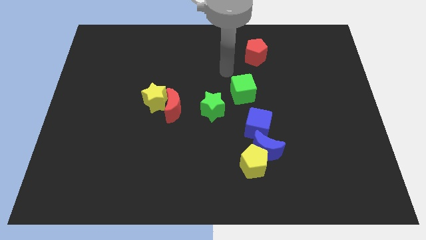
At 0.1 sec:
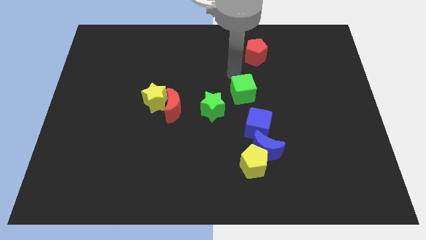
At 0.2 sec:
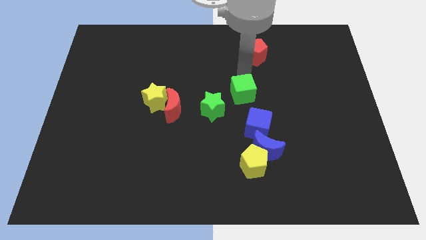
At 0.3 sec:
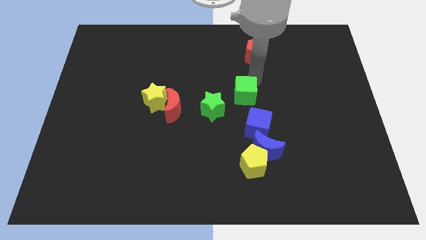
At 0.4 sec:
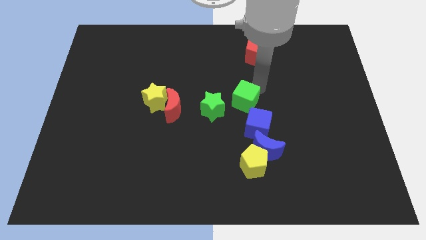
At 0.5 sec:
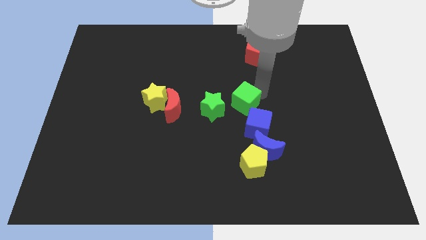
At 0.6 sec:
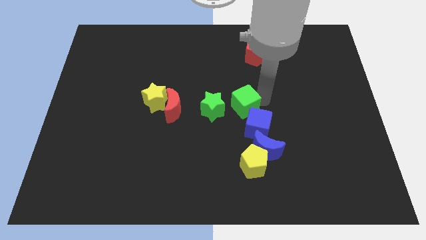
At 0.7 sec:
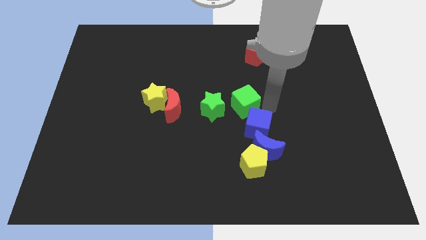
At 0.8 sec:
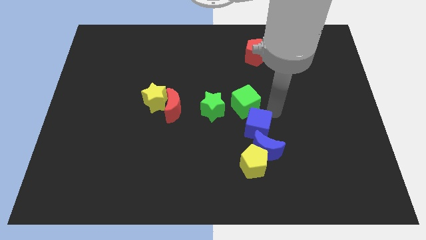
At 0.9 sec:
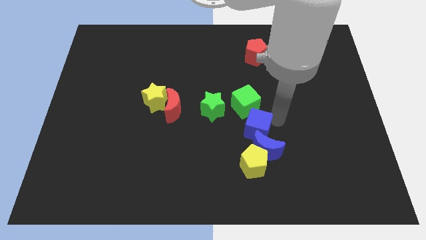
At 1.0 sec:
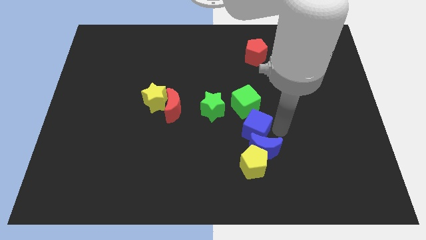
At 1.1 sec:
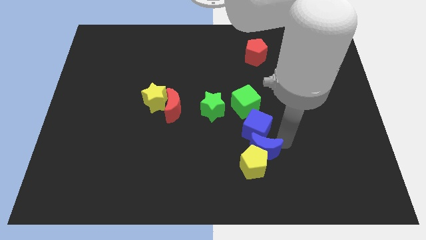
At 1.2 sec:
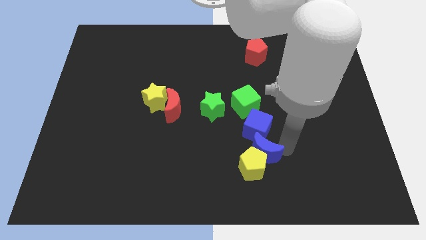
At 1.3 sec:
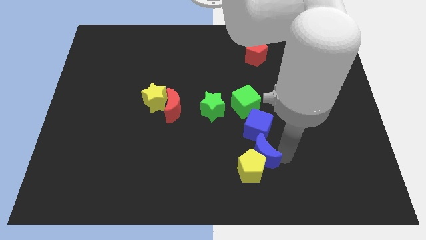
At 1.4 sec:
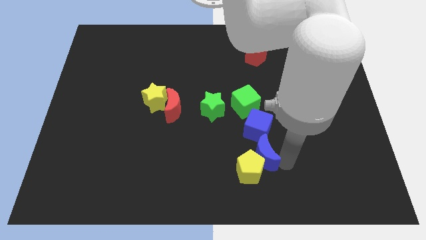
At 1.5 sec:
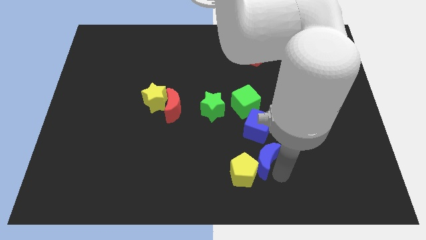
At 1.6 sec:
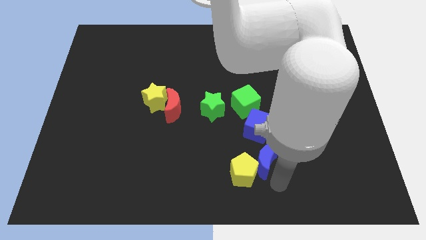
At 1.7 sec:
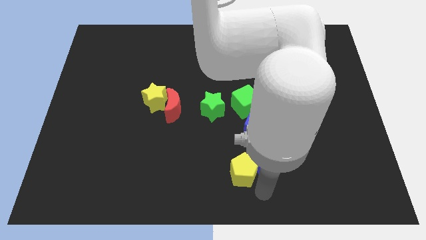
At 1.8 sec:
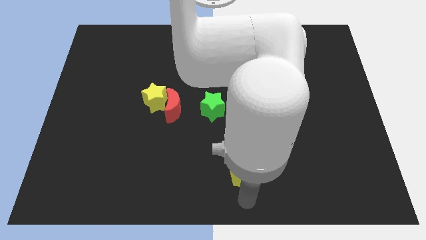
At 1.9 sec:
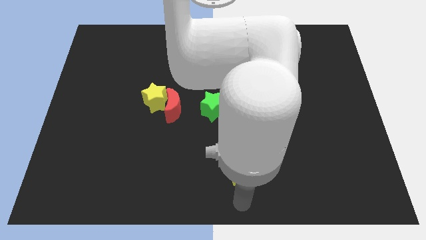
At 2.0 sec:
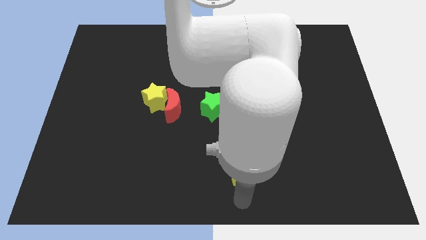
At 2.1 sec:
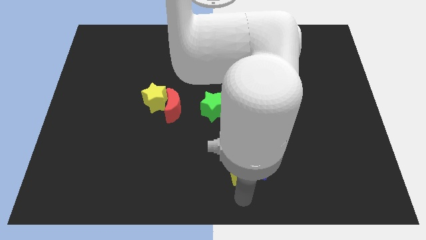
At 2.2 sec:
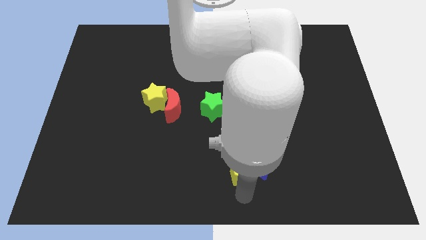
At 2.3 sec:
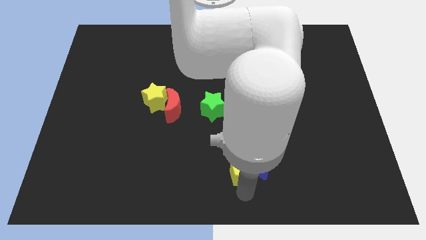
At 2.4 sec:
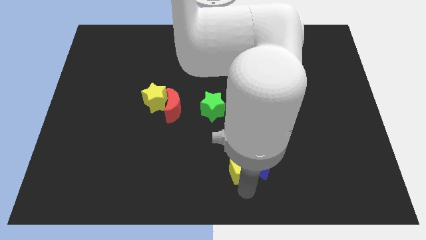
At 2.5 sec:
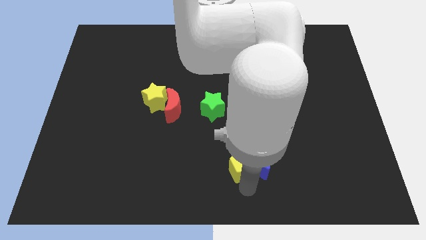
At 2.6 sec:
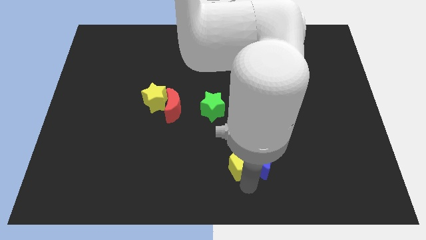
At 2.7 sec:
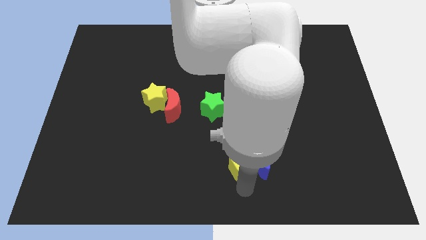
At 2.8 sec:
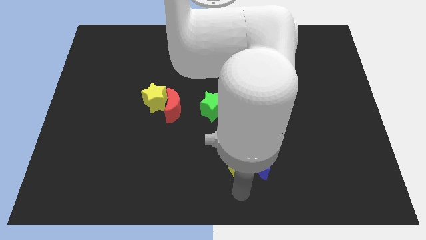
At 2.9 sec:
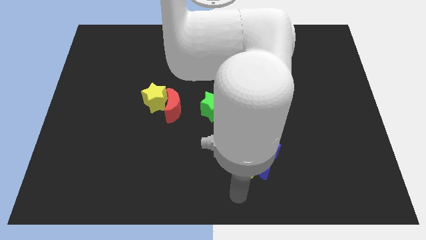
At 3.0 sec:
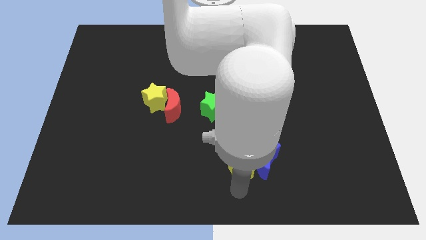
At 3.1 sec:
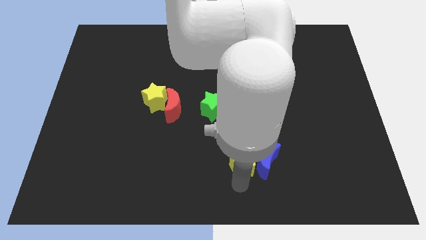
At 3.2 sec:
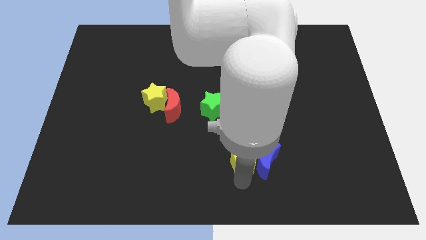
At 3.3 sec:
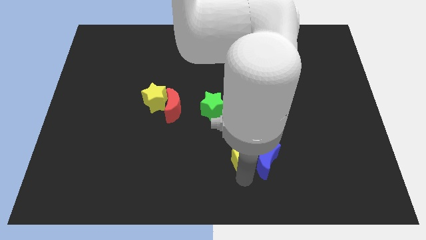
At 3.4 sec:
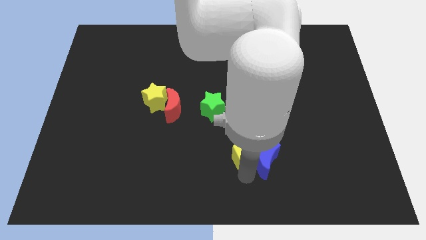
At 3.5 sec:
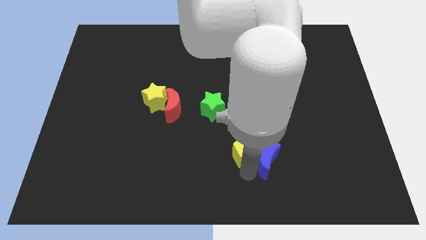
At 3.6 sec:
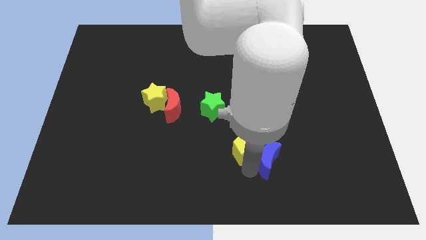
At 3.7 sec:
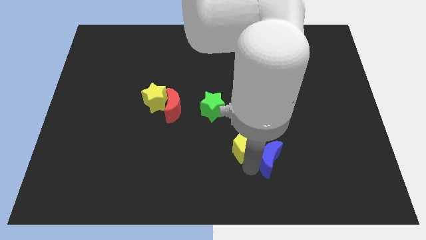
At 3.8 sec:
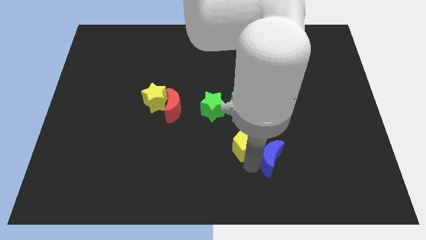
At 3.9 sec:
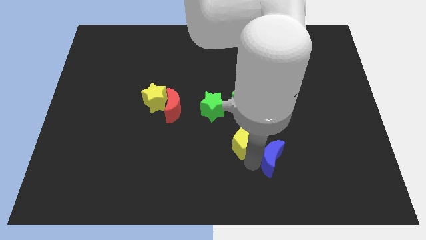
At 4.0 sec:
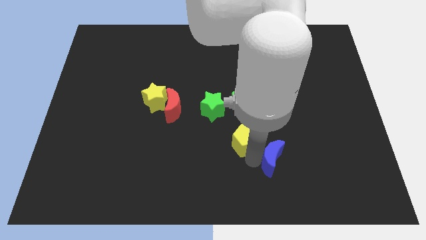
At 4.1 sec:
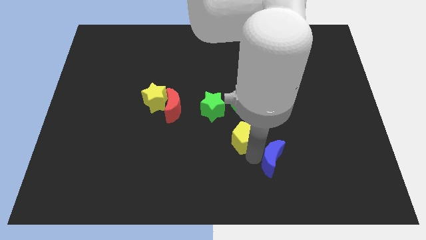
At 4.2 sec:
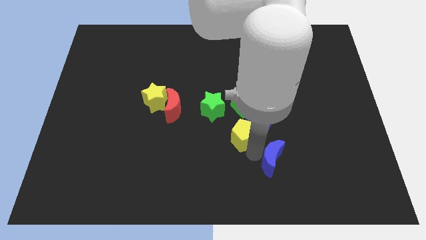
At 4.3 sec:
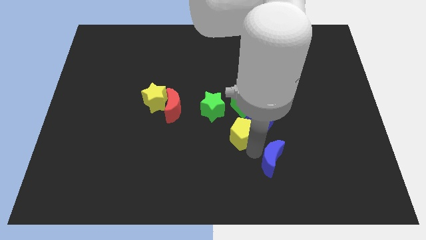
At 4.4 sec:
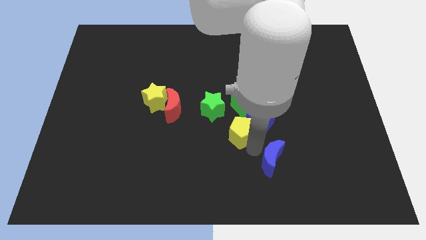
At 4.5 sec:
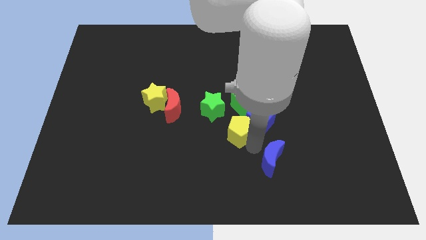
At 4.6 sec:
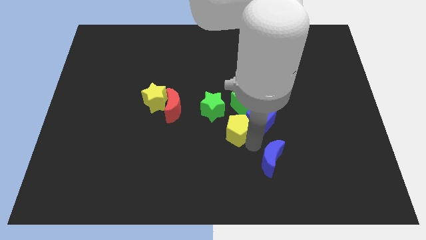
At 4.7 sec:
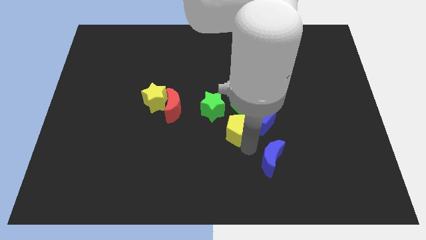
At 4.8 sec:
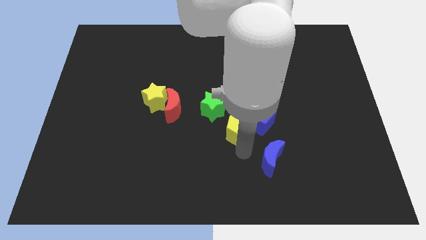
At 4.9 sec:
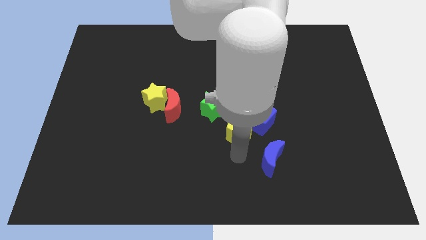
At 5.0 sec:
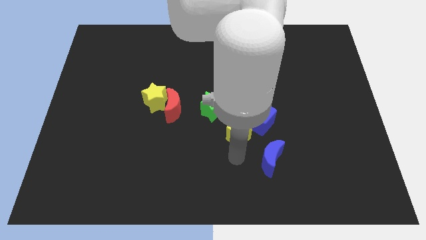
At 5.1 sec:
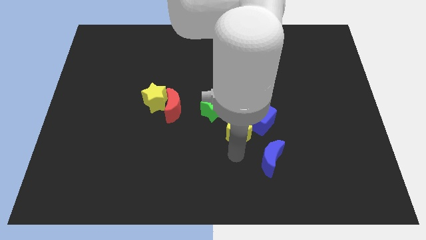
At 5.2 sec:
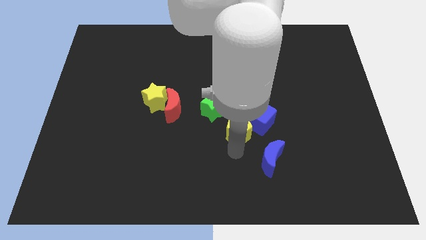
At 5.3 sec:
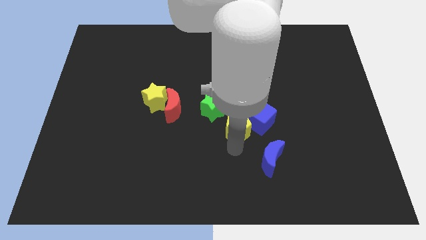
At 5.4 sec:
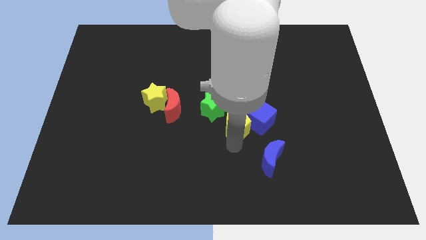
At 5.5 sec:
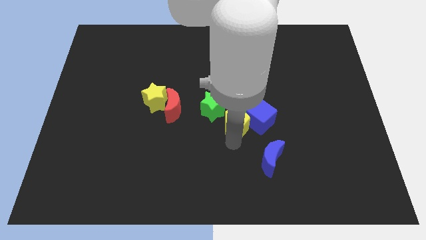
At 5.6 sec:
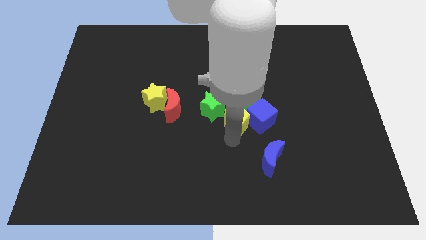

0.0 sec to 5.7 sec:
slide the yellow pentagon towards the green cube

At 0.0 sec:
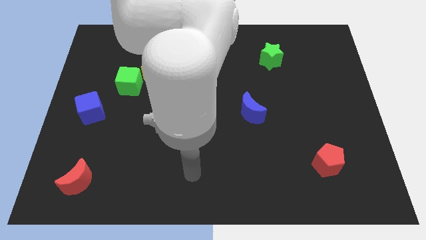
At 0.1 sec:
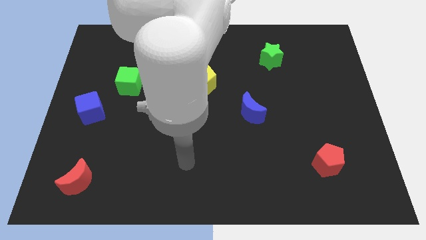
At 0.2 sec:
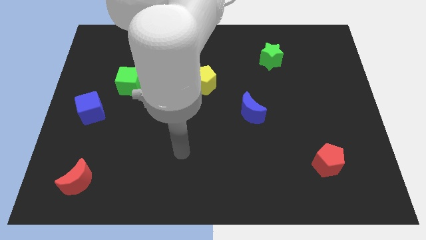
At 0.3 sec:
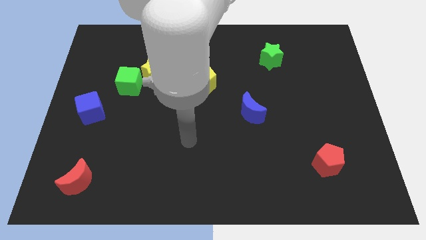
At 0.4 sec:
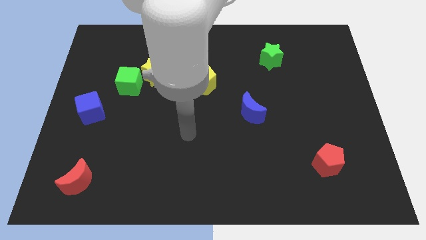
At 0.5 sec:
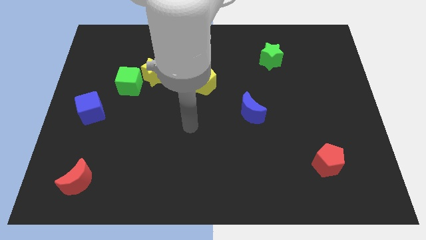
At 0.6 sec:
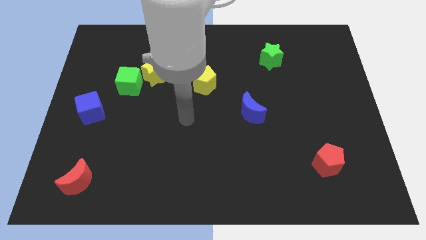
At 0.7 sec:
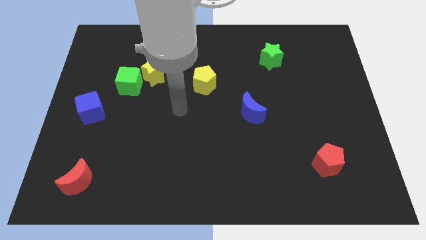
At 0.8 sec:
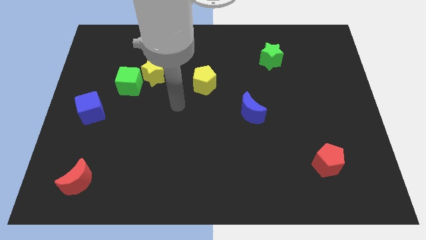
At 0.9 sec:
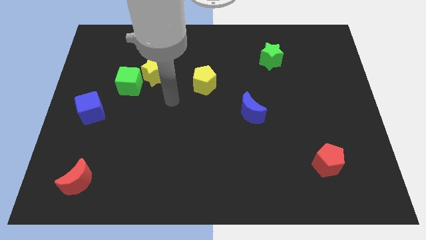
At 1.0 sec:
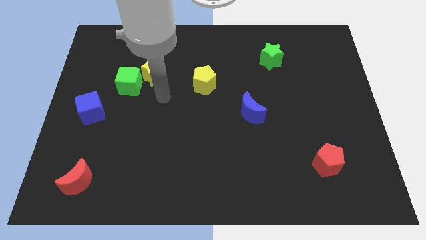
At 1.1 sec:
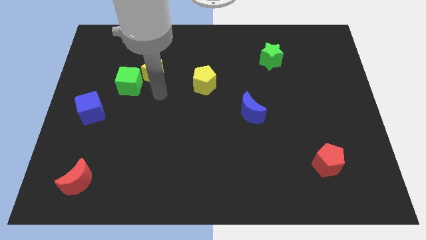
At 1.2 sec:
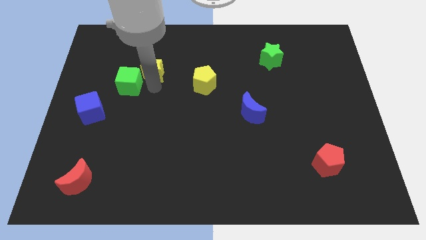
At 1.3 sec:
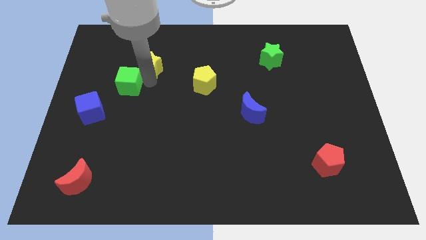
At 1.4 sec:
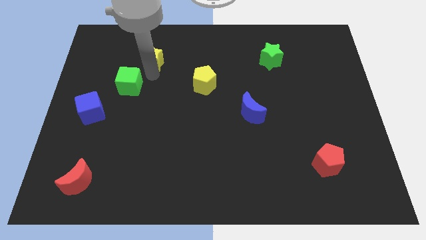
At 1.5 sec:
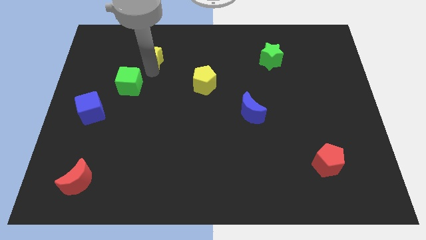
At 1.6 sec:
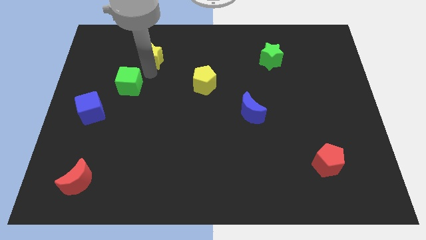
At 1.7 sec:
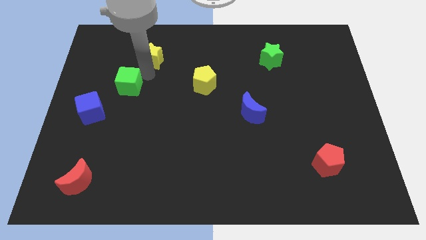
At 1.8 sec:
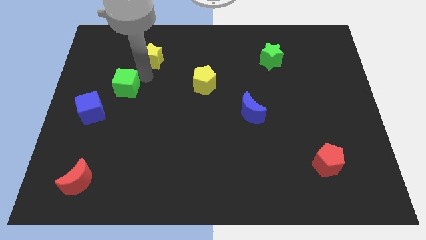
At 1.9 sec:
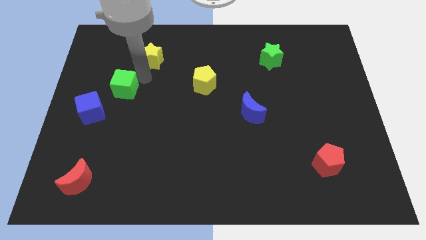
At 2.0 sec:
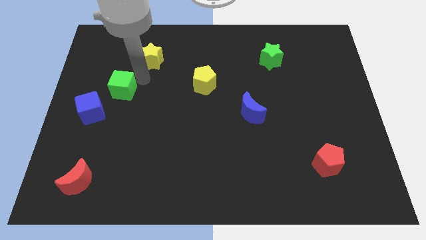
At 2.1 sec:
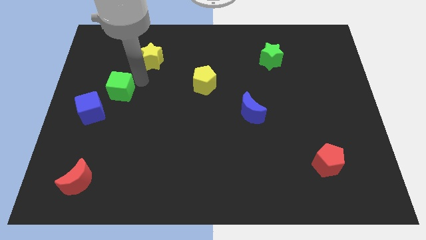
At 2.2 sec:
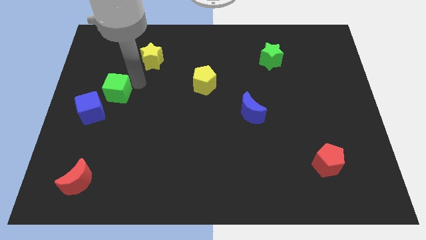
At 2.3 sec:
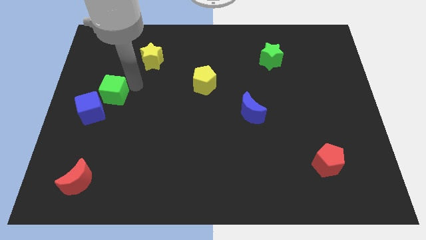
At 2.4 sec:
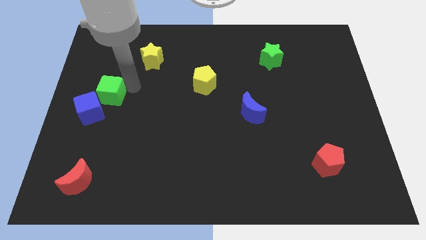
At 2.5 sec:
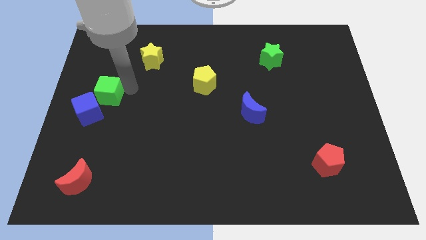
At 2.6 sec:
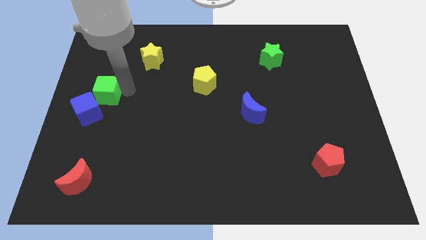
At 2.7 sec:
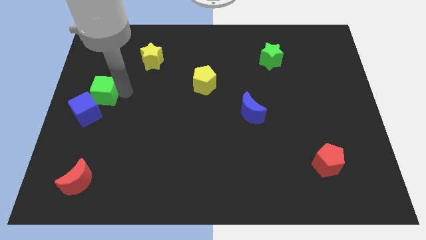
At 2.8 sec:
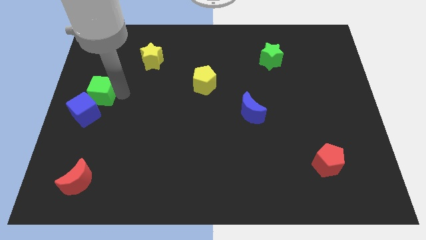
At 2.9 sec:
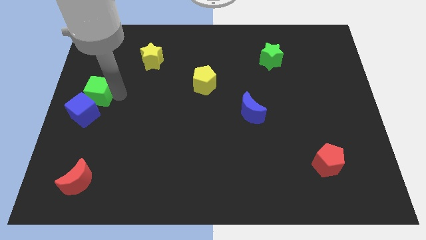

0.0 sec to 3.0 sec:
move the green cube towards the blue cube
